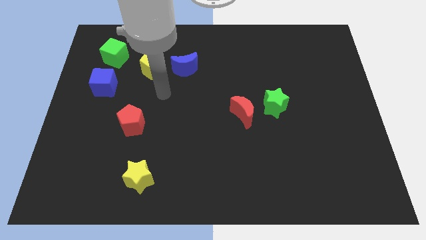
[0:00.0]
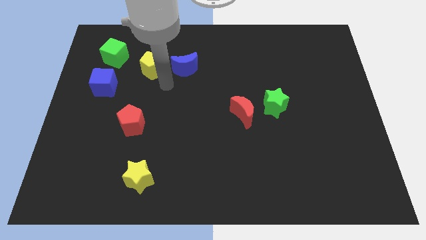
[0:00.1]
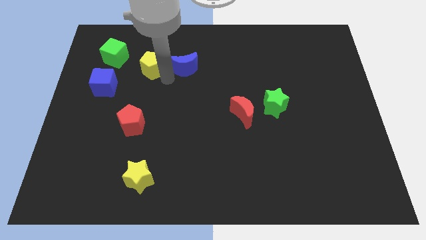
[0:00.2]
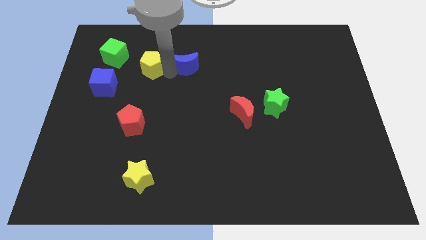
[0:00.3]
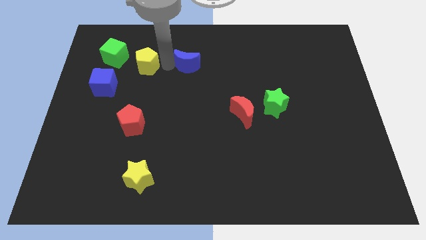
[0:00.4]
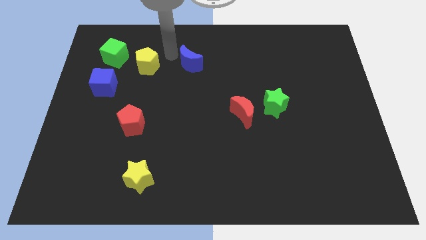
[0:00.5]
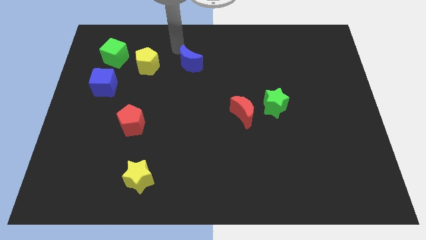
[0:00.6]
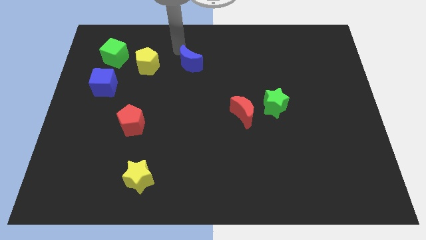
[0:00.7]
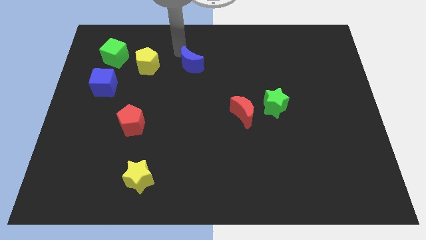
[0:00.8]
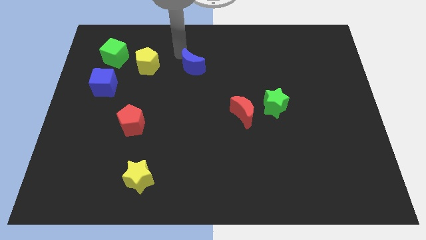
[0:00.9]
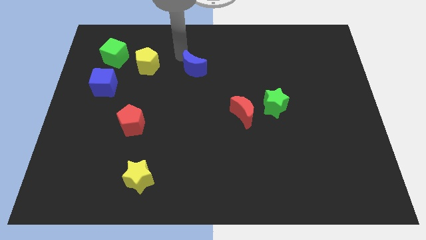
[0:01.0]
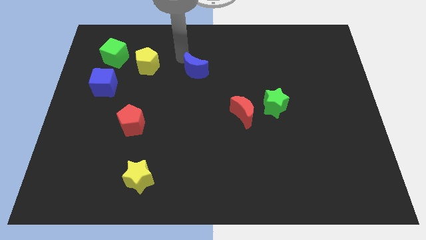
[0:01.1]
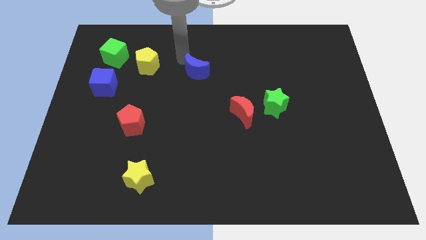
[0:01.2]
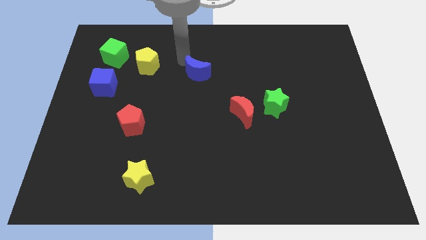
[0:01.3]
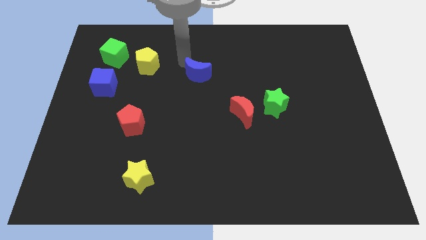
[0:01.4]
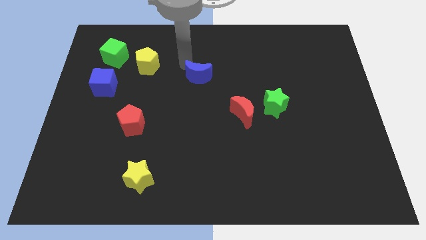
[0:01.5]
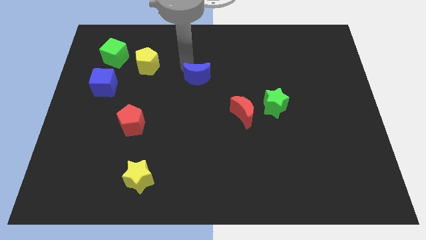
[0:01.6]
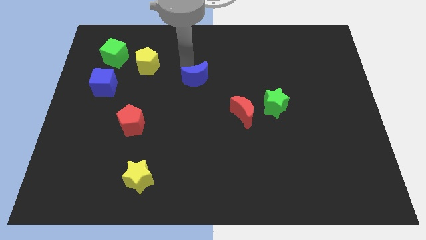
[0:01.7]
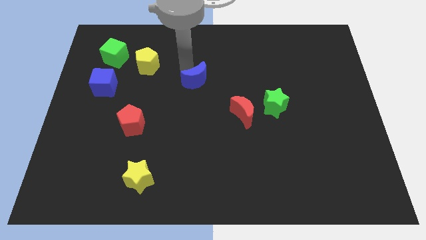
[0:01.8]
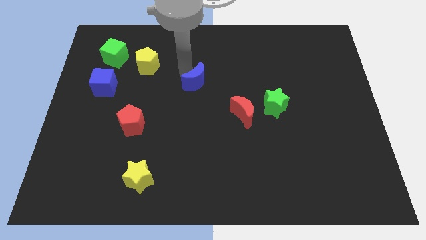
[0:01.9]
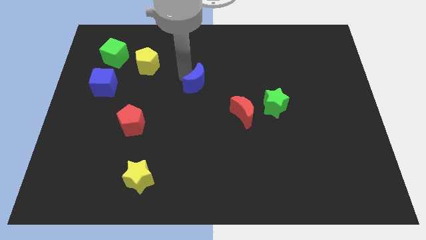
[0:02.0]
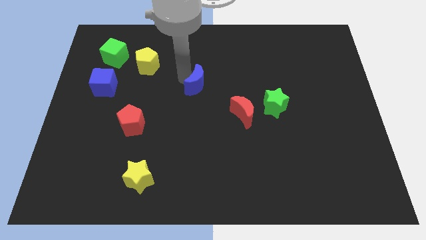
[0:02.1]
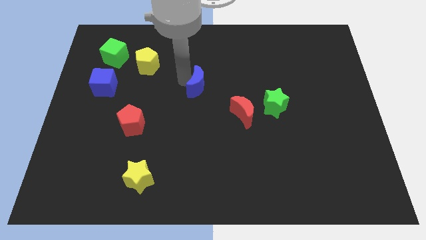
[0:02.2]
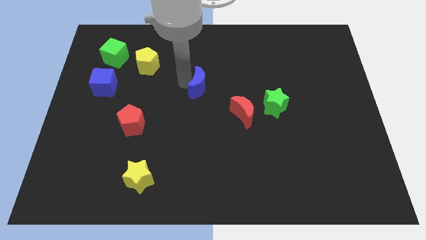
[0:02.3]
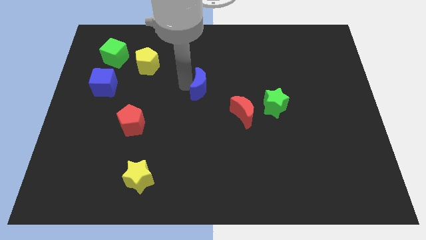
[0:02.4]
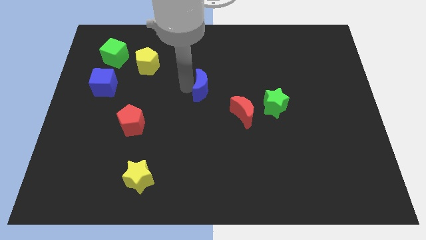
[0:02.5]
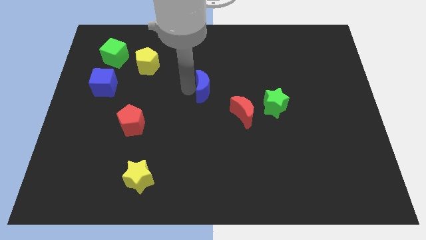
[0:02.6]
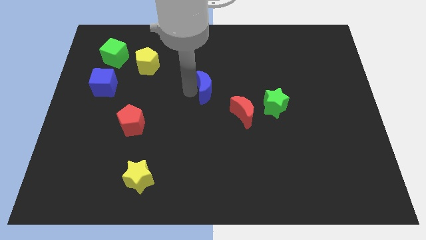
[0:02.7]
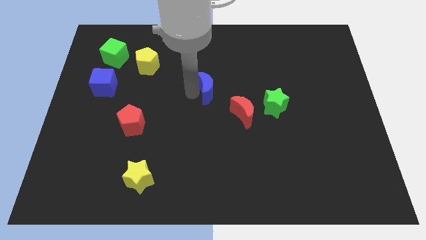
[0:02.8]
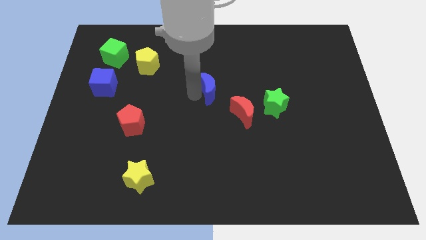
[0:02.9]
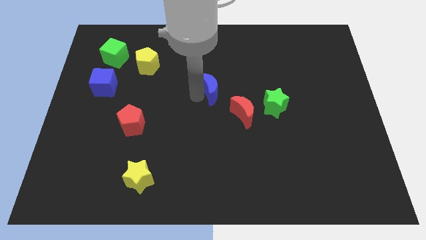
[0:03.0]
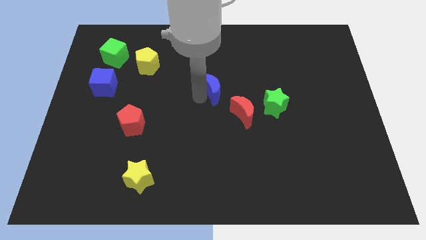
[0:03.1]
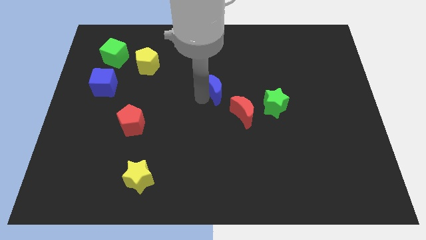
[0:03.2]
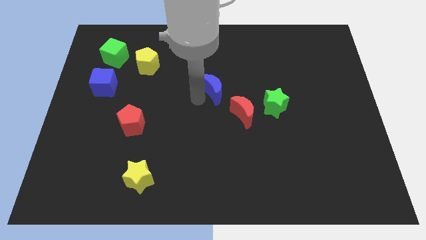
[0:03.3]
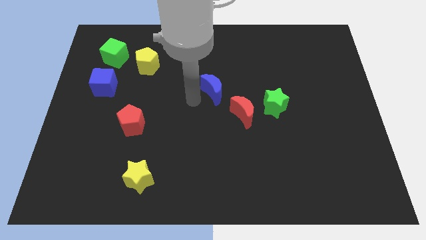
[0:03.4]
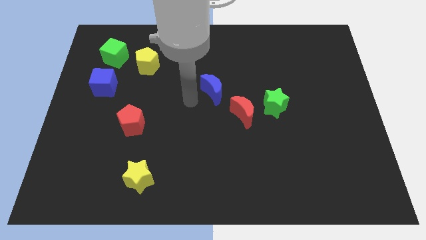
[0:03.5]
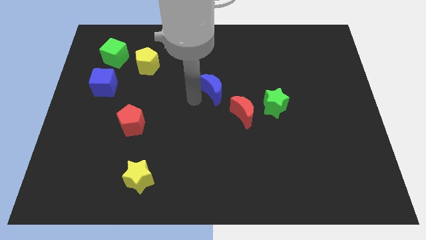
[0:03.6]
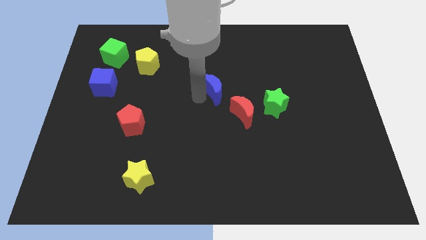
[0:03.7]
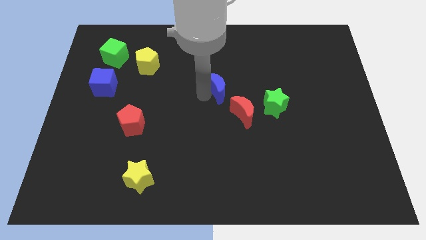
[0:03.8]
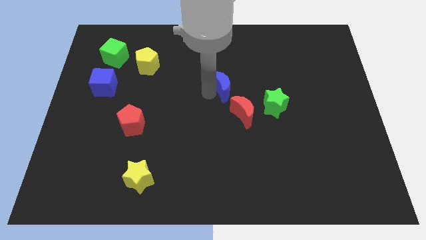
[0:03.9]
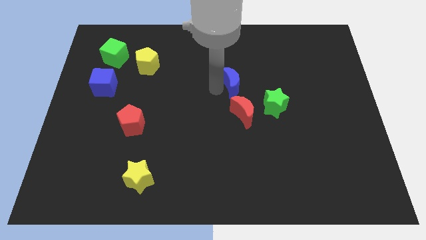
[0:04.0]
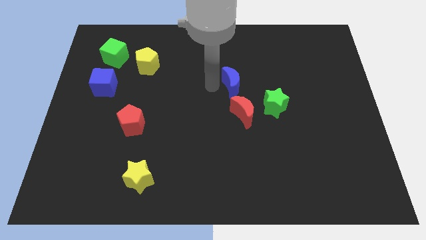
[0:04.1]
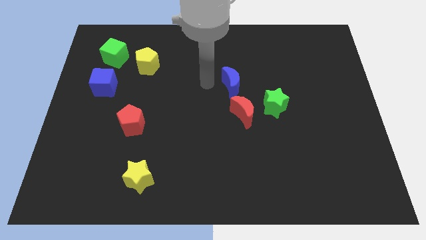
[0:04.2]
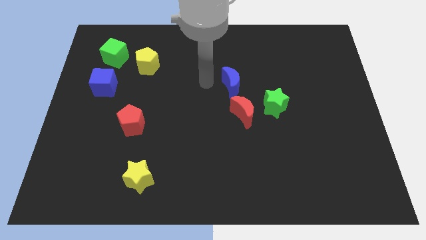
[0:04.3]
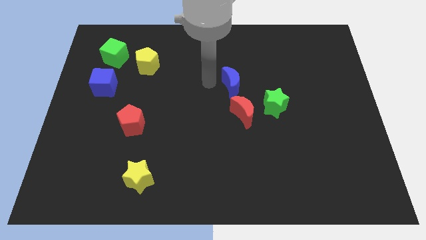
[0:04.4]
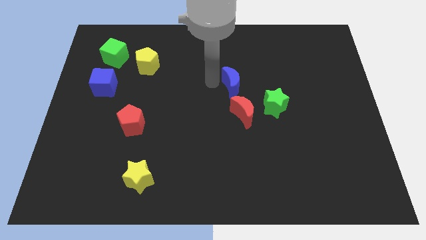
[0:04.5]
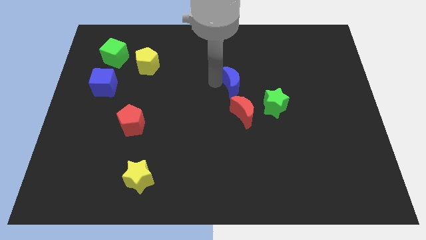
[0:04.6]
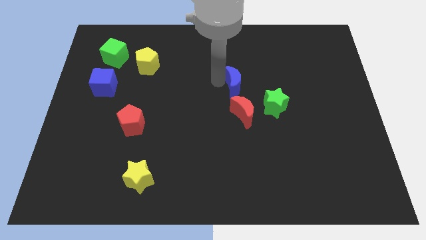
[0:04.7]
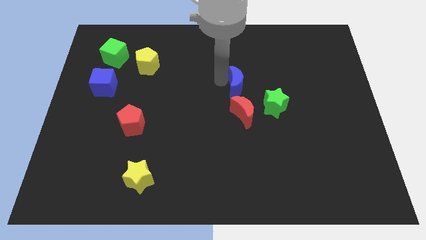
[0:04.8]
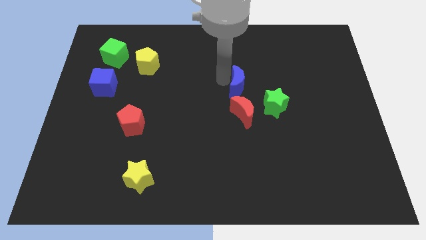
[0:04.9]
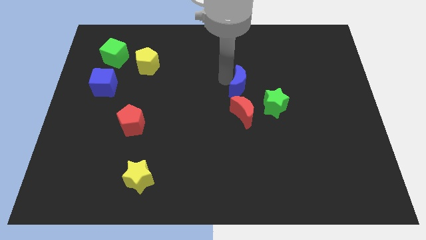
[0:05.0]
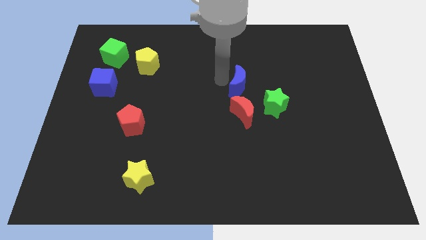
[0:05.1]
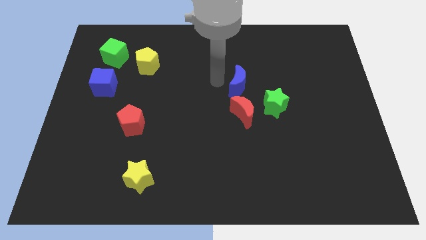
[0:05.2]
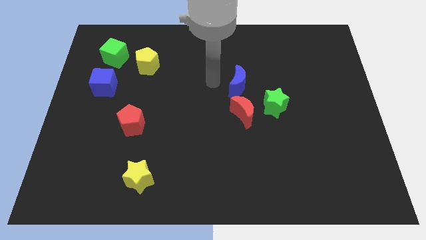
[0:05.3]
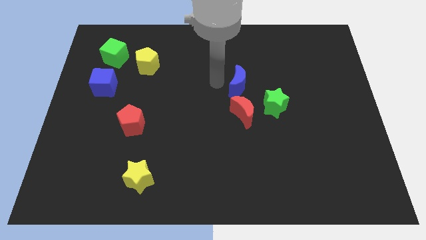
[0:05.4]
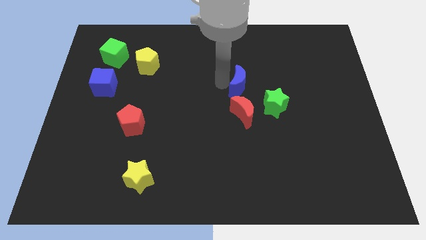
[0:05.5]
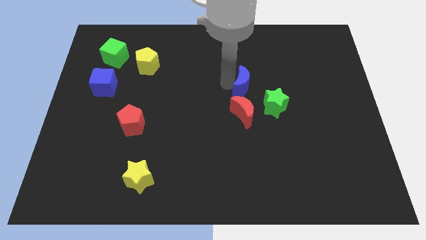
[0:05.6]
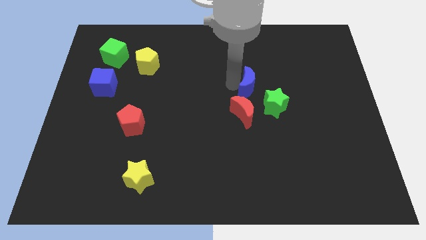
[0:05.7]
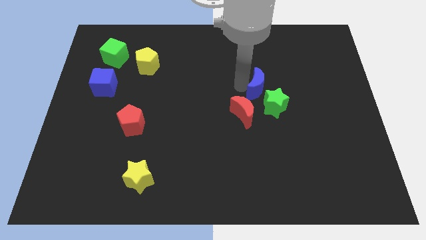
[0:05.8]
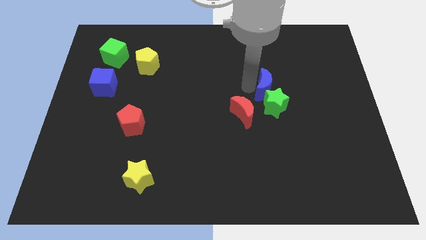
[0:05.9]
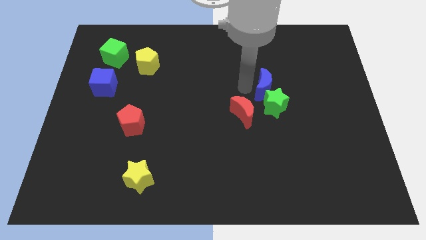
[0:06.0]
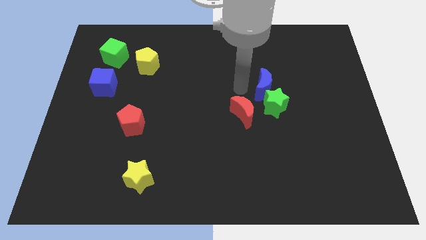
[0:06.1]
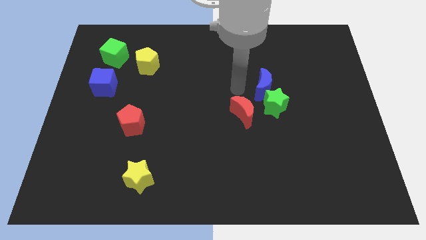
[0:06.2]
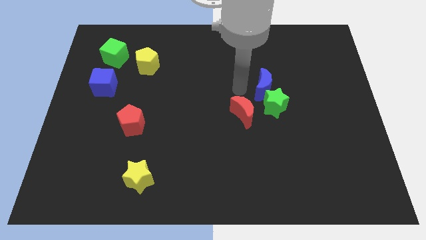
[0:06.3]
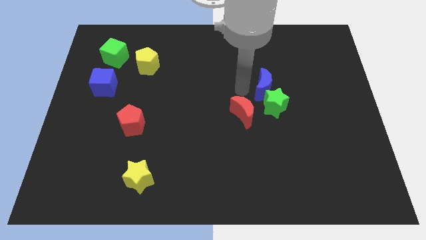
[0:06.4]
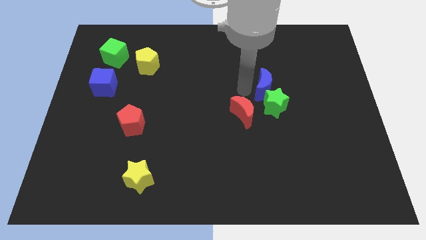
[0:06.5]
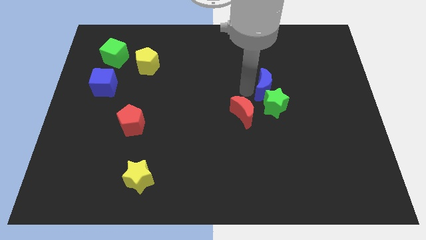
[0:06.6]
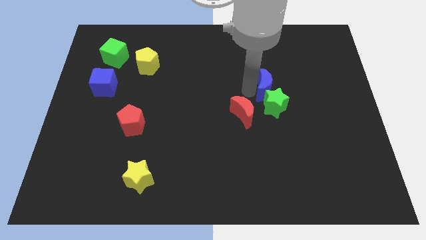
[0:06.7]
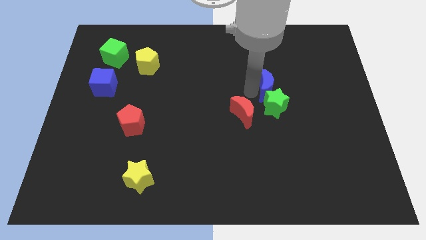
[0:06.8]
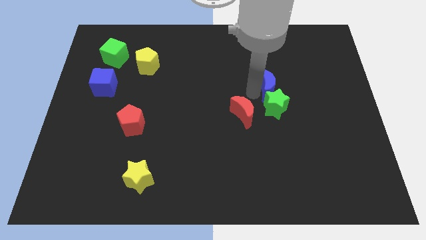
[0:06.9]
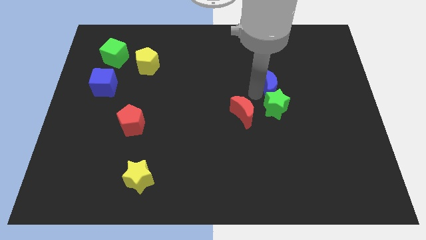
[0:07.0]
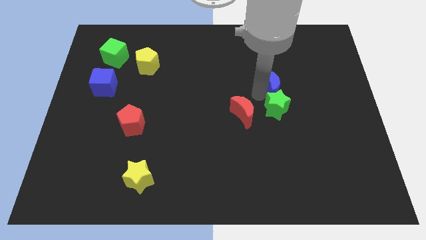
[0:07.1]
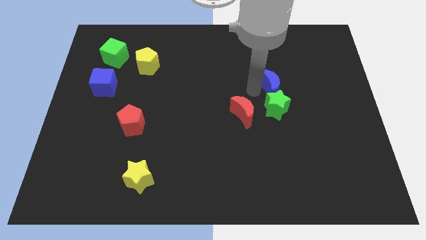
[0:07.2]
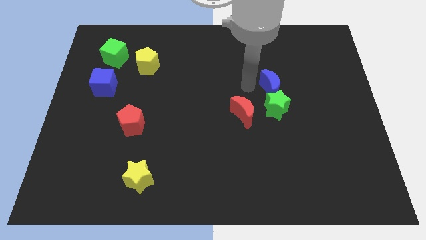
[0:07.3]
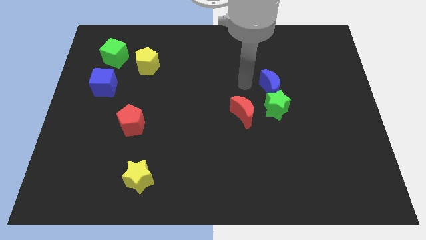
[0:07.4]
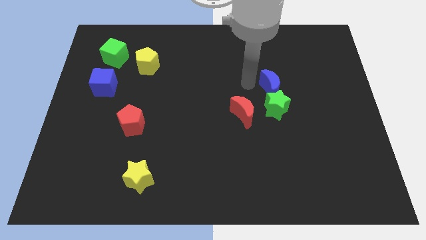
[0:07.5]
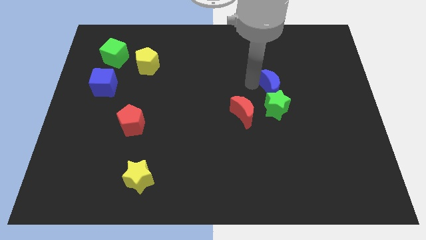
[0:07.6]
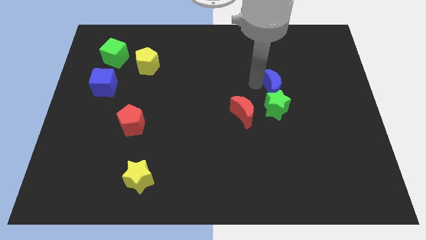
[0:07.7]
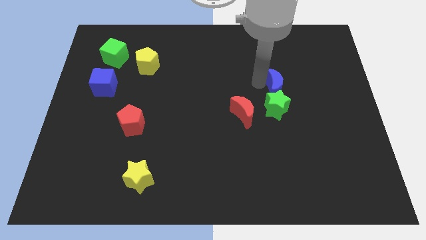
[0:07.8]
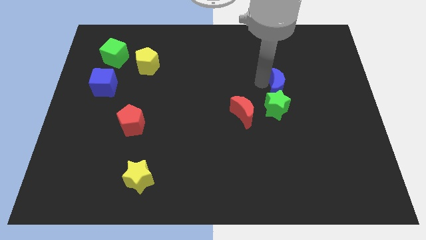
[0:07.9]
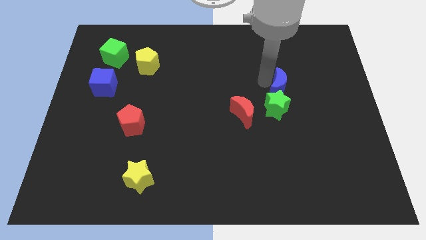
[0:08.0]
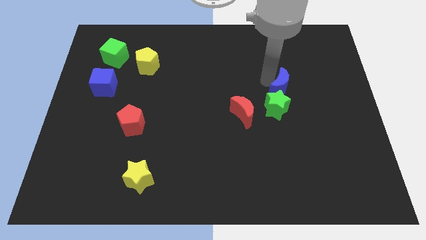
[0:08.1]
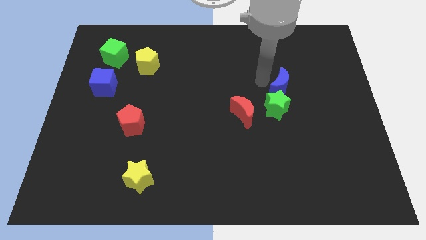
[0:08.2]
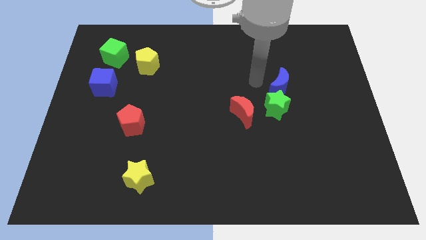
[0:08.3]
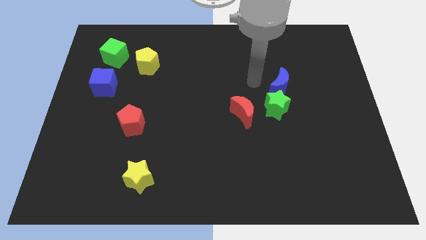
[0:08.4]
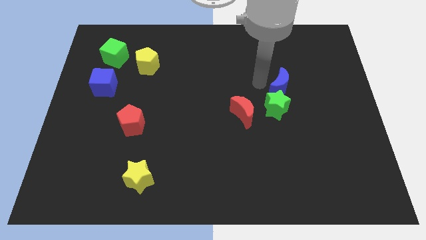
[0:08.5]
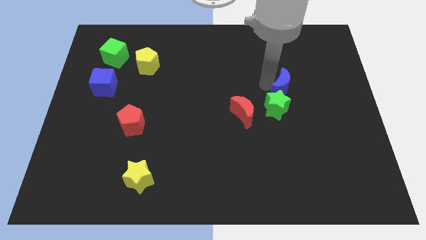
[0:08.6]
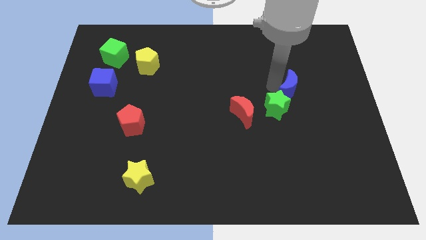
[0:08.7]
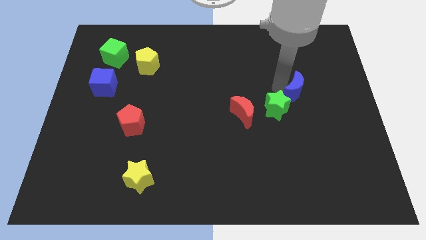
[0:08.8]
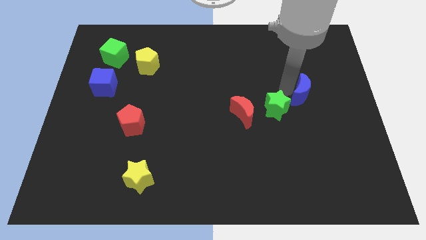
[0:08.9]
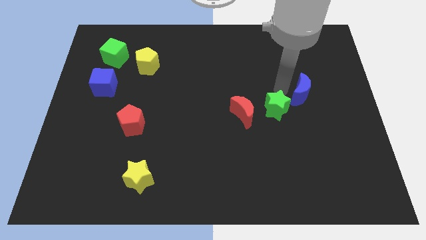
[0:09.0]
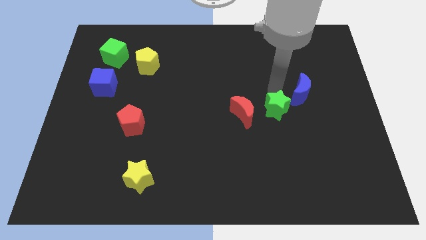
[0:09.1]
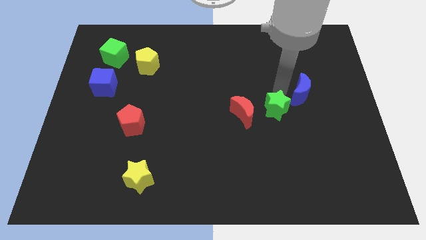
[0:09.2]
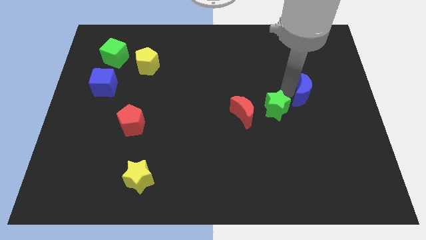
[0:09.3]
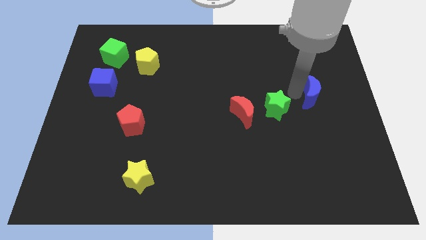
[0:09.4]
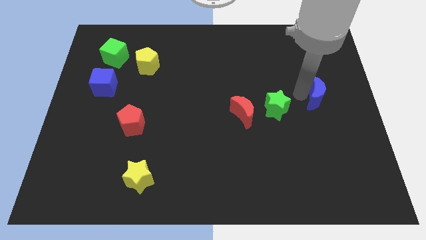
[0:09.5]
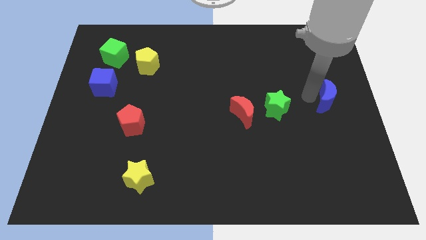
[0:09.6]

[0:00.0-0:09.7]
put the blue moon to the right side
